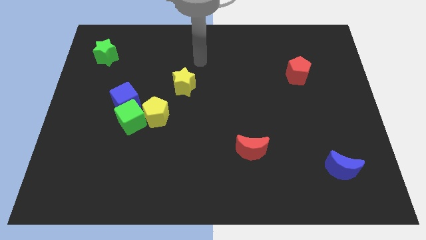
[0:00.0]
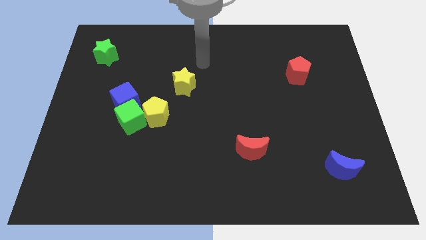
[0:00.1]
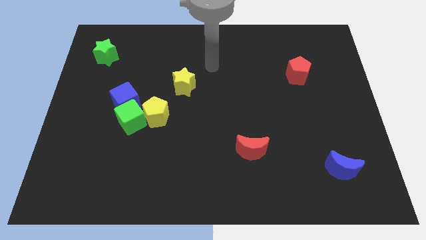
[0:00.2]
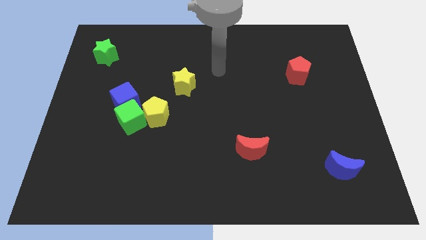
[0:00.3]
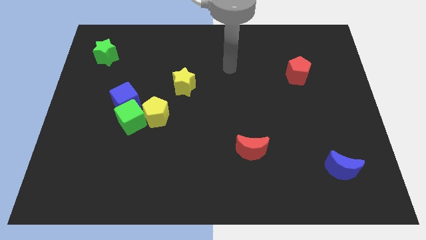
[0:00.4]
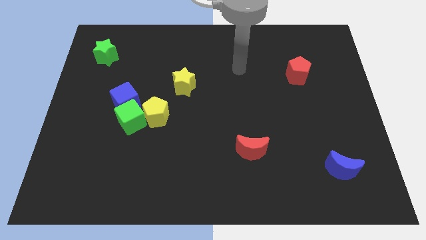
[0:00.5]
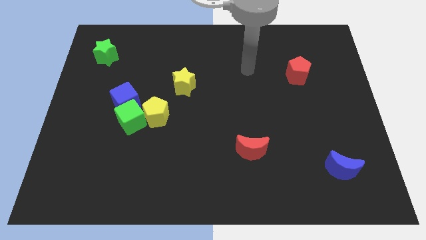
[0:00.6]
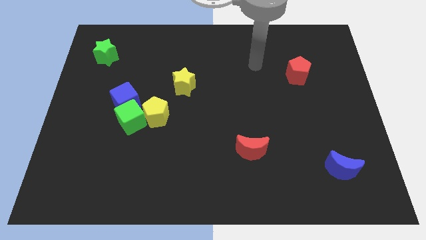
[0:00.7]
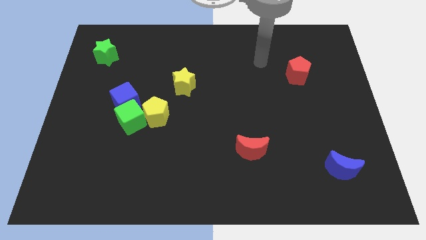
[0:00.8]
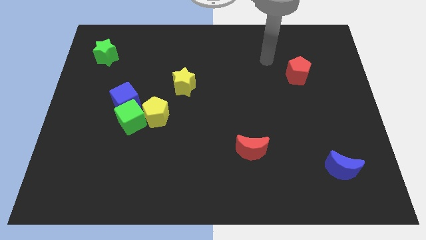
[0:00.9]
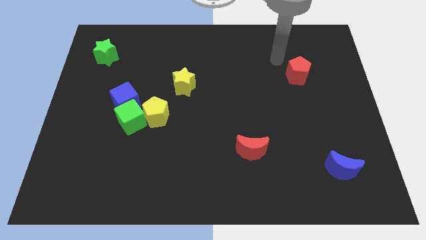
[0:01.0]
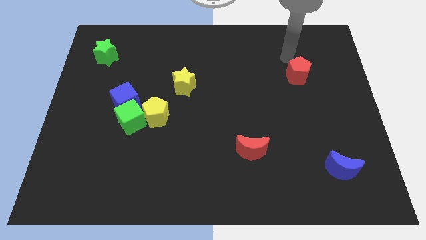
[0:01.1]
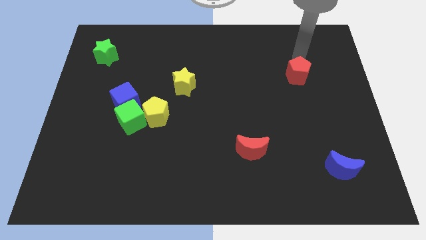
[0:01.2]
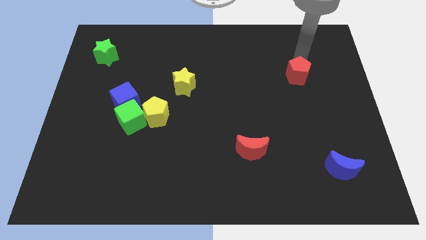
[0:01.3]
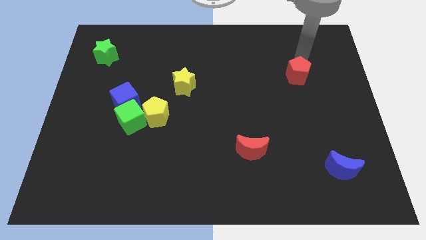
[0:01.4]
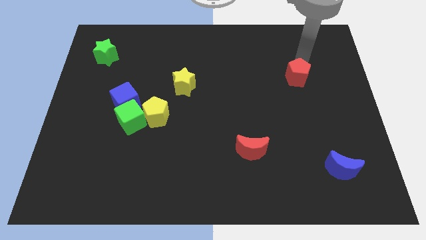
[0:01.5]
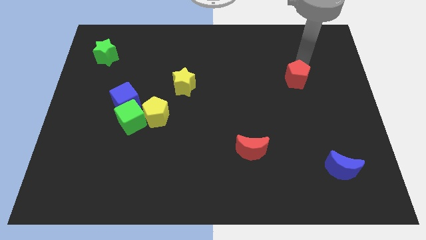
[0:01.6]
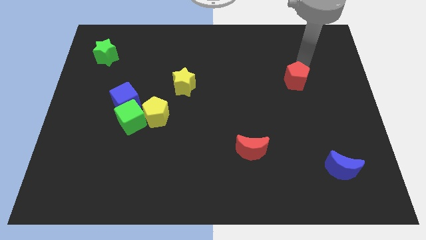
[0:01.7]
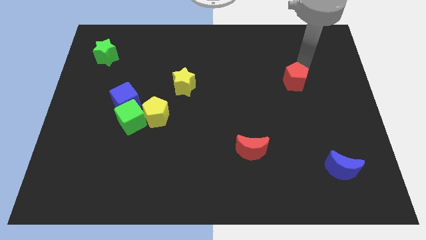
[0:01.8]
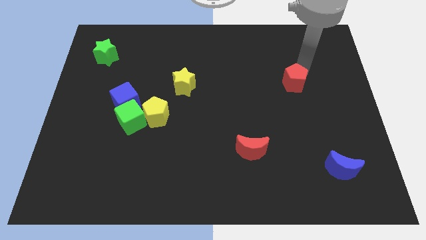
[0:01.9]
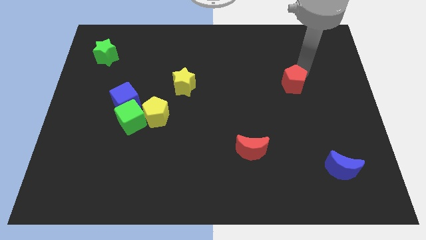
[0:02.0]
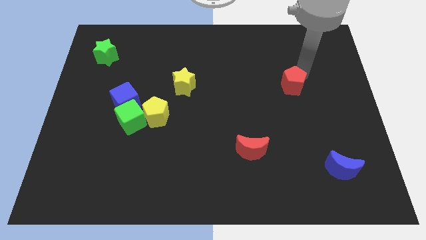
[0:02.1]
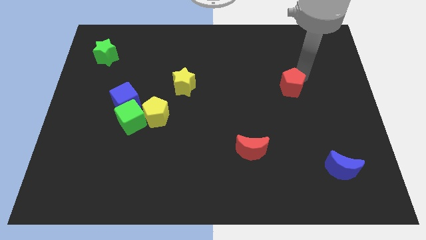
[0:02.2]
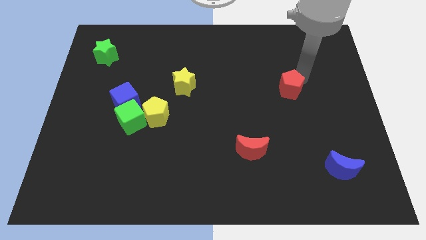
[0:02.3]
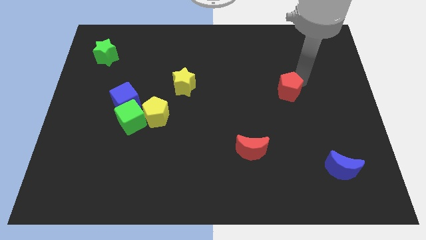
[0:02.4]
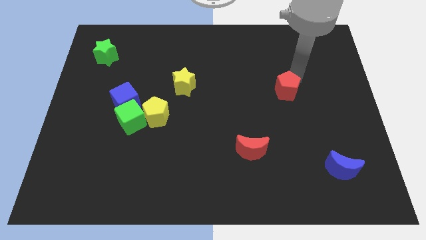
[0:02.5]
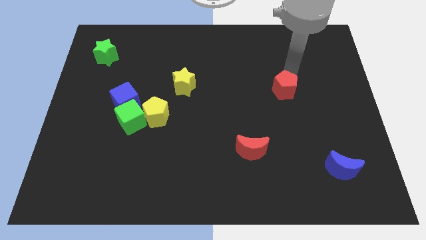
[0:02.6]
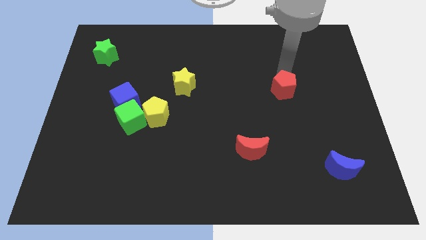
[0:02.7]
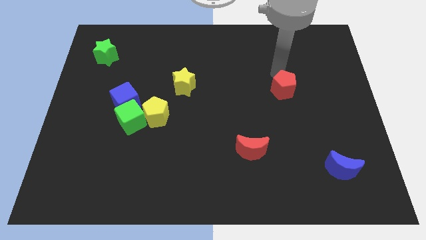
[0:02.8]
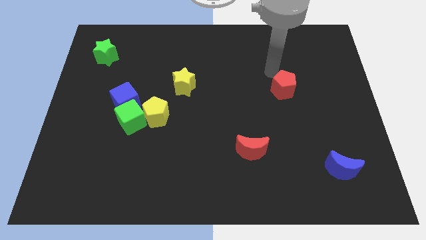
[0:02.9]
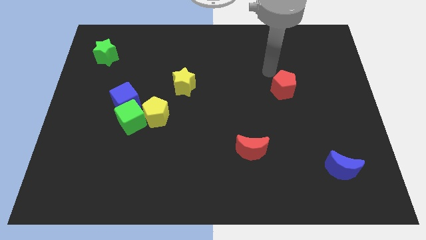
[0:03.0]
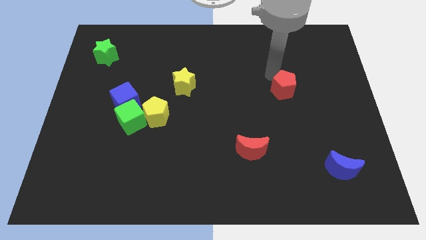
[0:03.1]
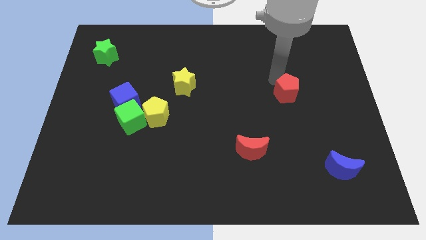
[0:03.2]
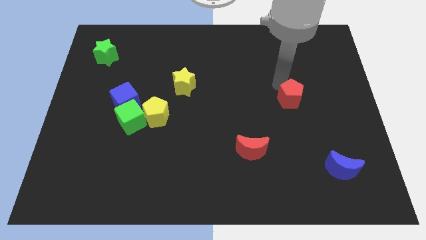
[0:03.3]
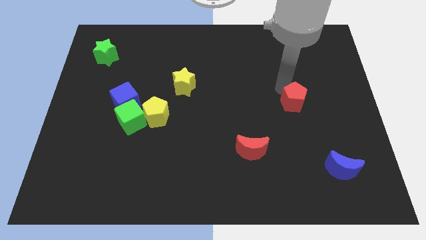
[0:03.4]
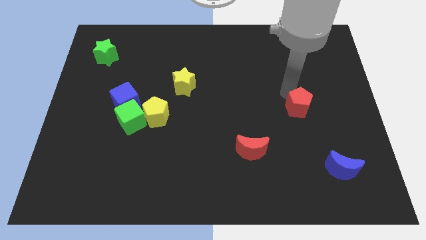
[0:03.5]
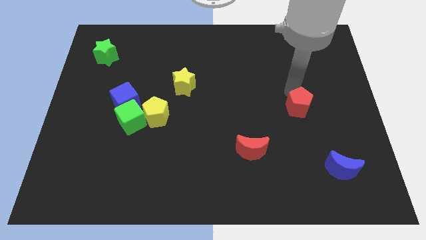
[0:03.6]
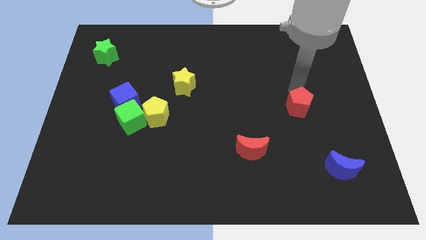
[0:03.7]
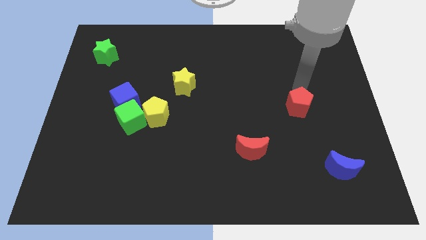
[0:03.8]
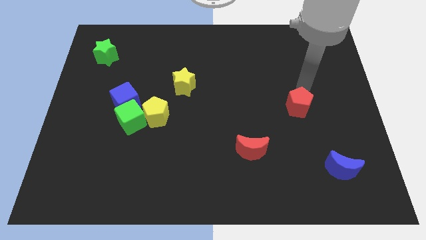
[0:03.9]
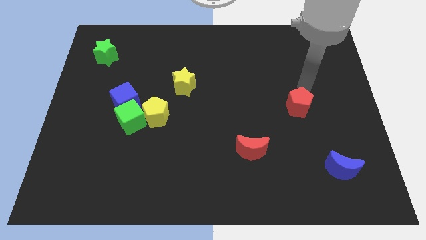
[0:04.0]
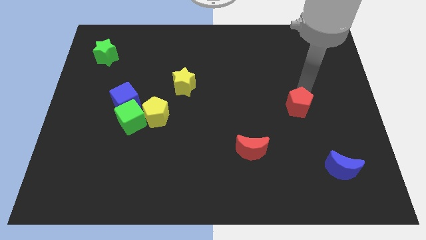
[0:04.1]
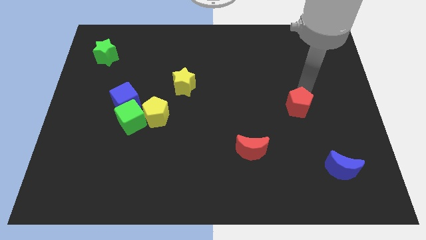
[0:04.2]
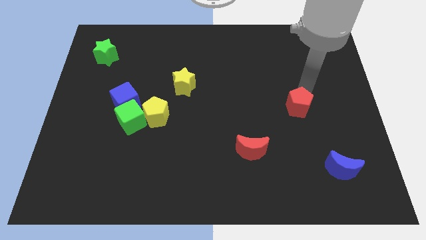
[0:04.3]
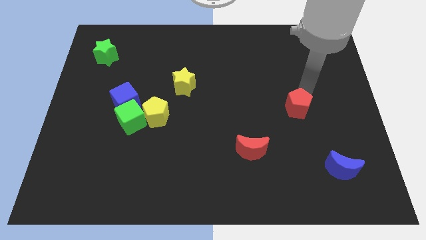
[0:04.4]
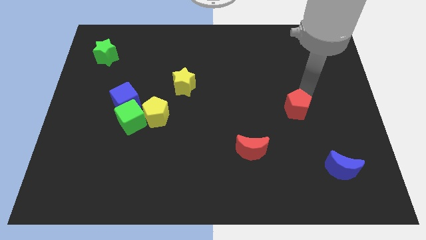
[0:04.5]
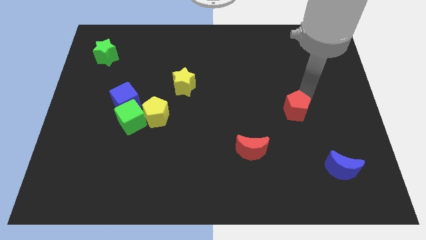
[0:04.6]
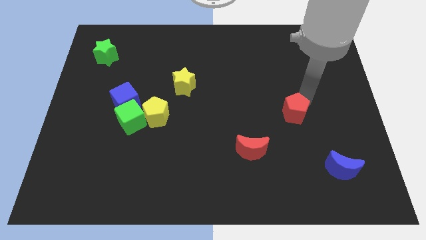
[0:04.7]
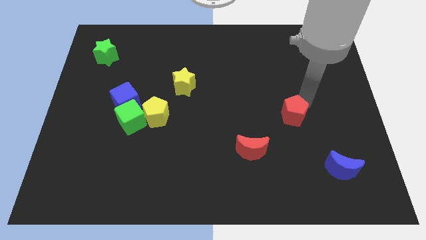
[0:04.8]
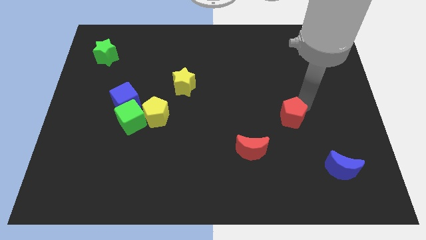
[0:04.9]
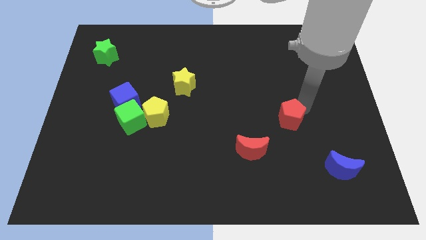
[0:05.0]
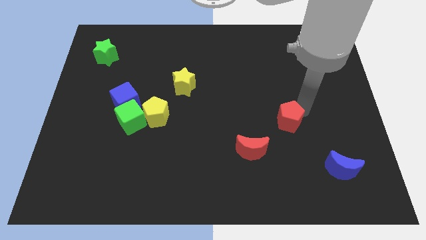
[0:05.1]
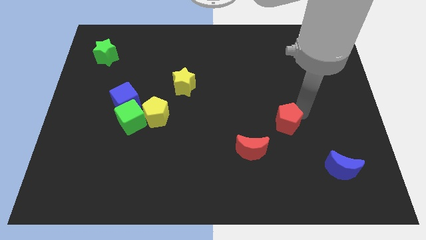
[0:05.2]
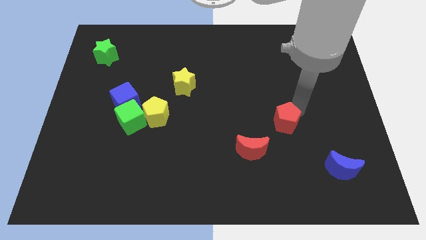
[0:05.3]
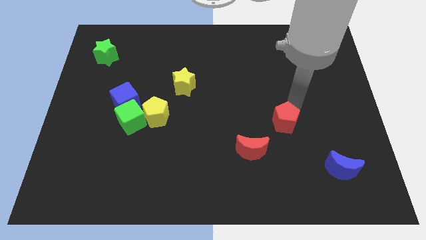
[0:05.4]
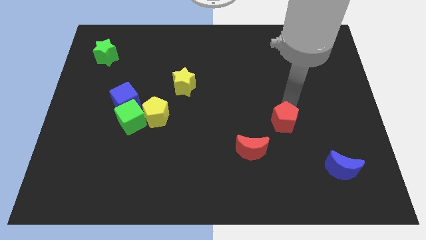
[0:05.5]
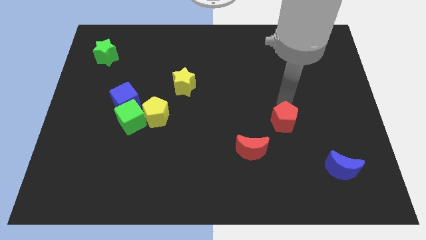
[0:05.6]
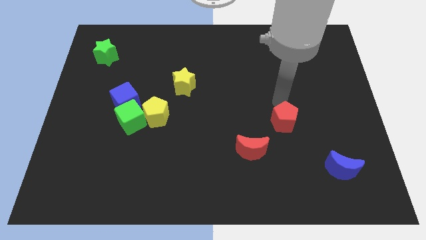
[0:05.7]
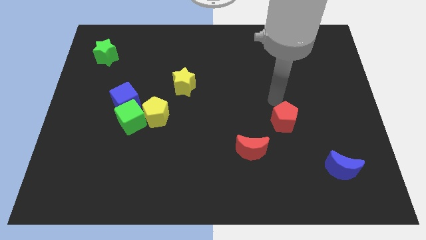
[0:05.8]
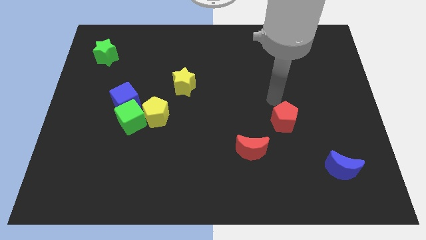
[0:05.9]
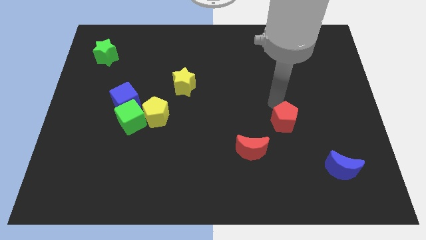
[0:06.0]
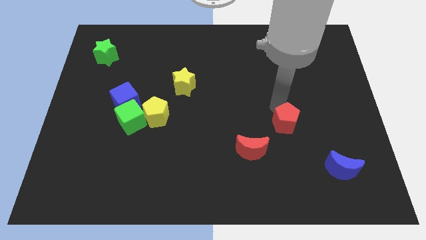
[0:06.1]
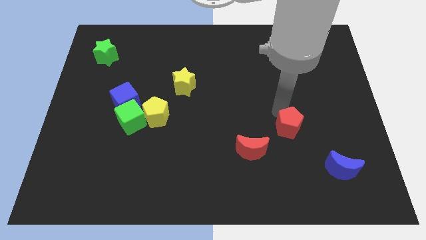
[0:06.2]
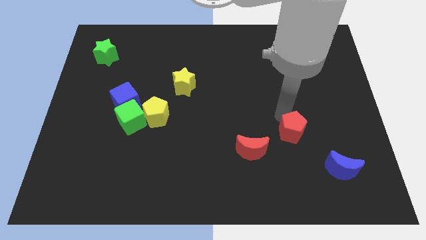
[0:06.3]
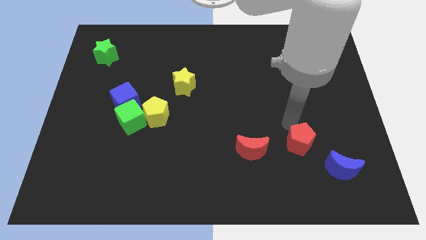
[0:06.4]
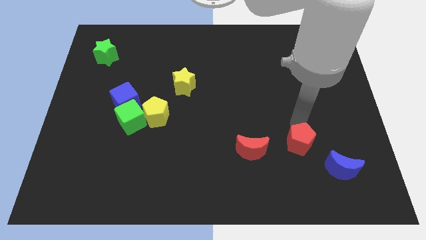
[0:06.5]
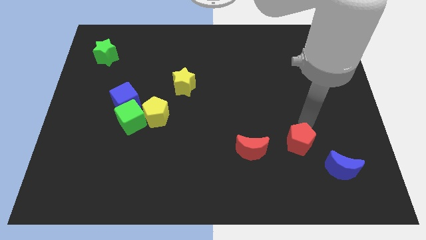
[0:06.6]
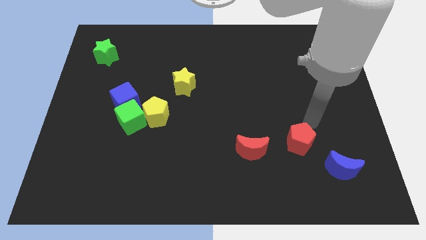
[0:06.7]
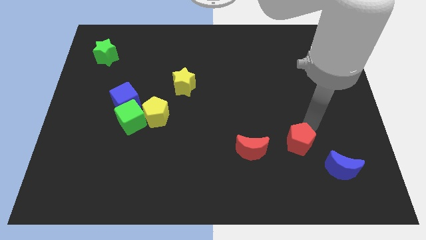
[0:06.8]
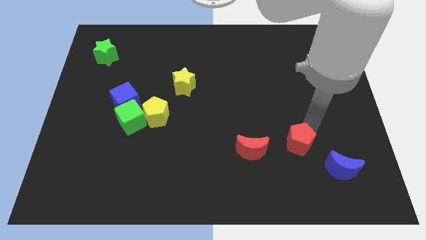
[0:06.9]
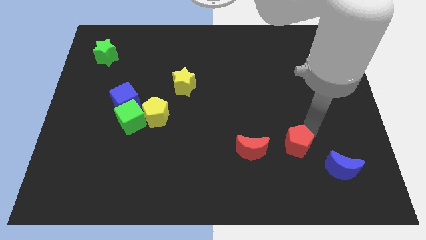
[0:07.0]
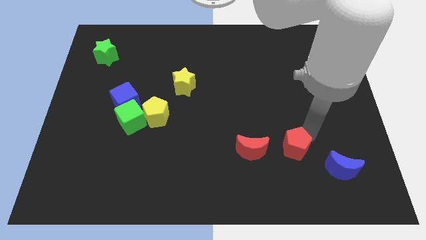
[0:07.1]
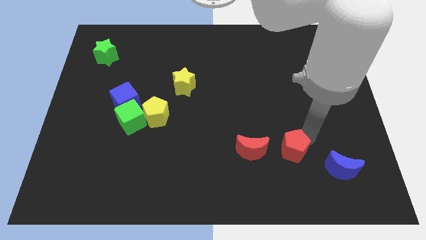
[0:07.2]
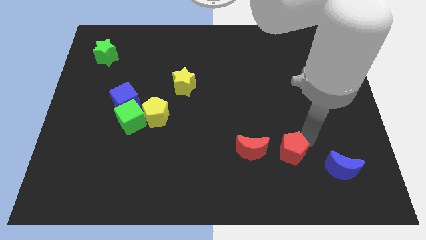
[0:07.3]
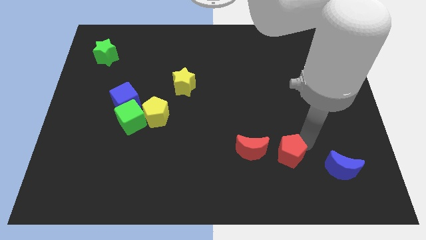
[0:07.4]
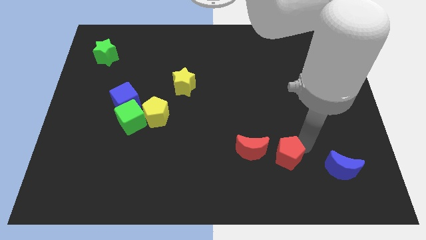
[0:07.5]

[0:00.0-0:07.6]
push the red pentagon diagonally down and to the right of the red moon
